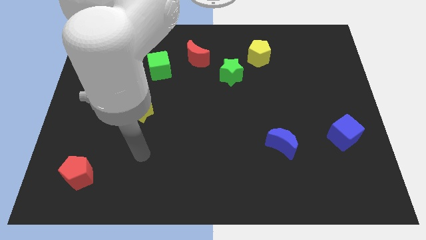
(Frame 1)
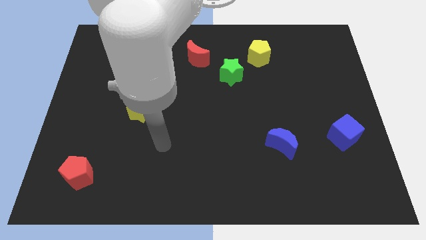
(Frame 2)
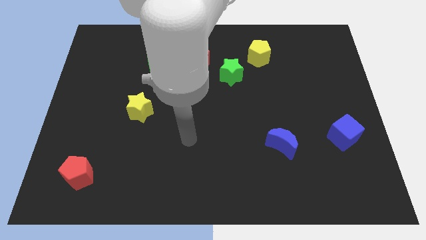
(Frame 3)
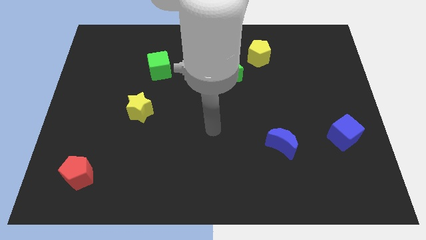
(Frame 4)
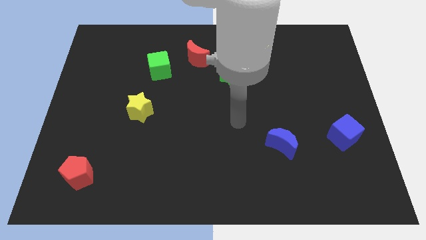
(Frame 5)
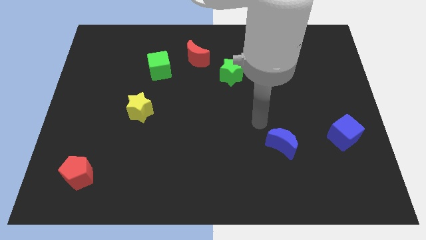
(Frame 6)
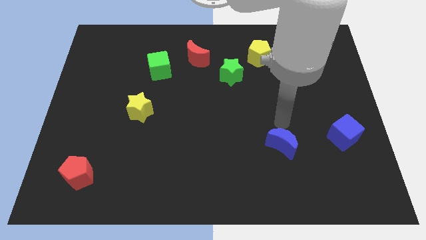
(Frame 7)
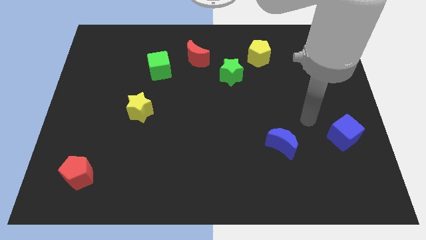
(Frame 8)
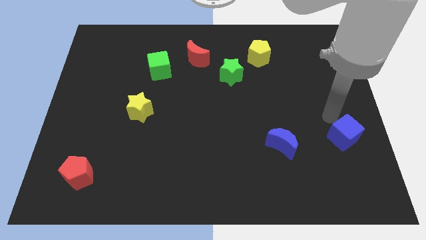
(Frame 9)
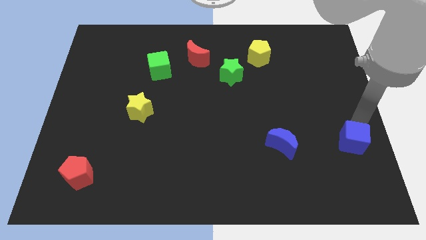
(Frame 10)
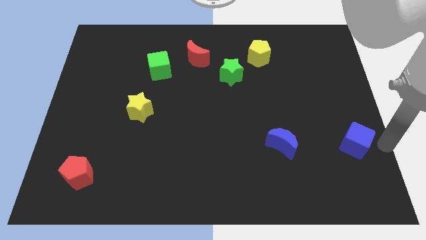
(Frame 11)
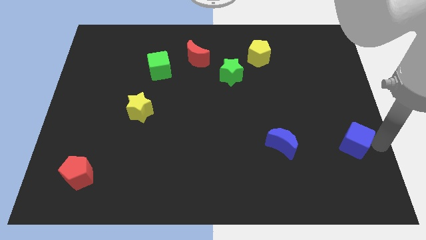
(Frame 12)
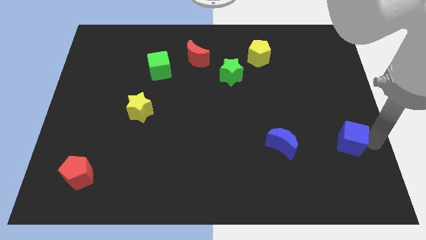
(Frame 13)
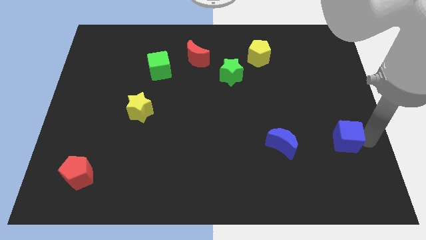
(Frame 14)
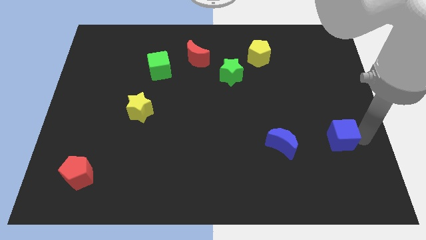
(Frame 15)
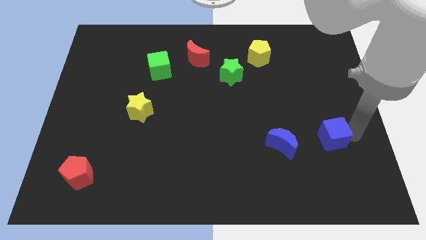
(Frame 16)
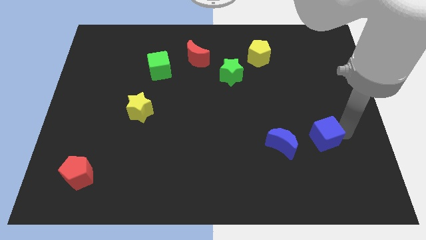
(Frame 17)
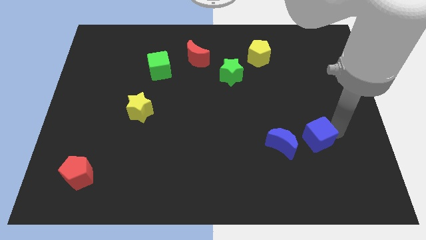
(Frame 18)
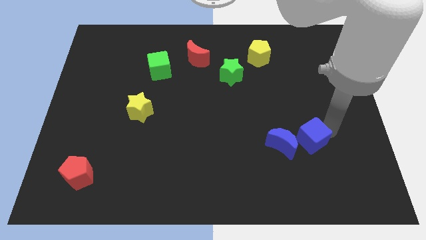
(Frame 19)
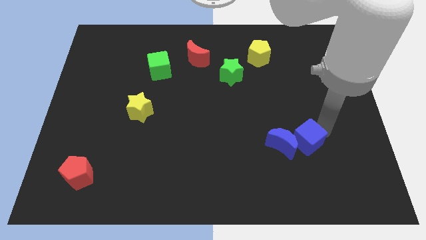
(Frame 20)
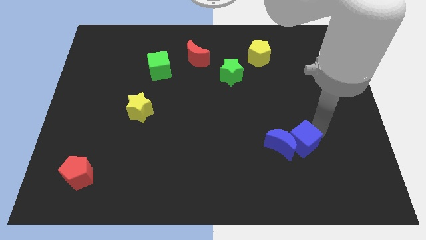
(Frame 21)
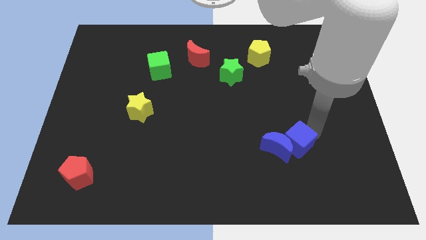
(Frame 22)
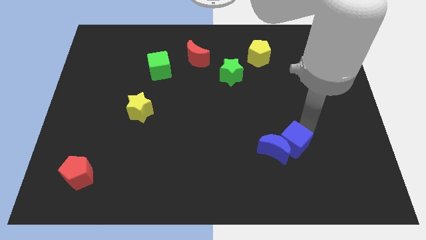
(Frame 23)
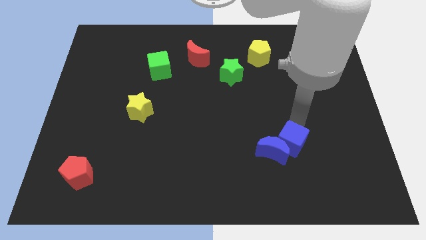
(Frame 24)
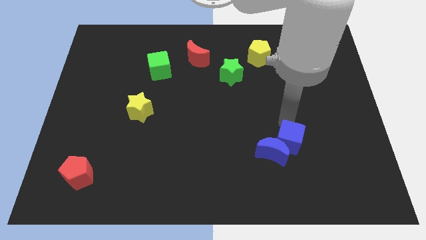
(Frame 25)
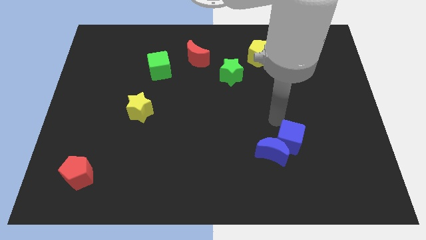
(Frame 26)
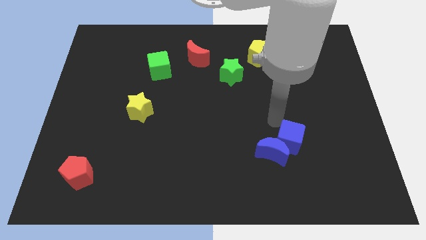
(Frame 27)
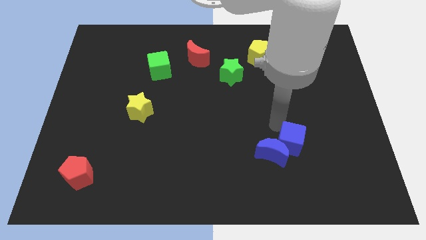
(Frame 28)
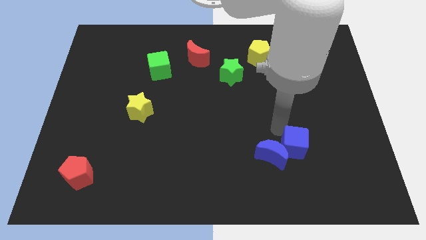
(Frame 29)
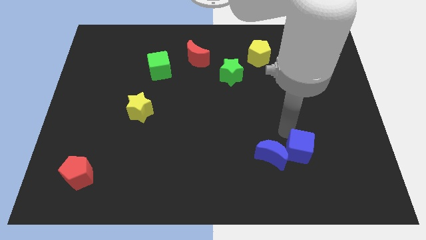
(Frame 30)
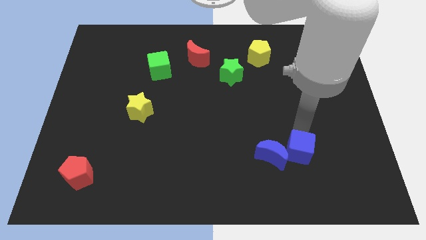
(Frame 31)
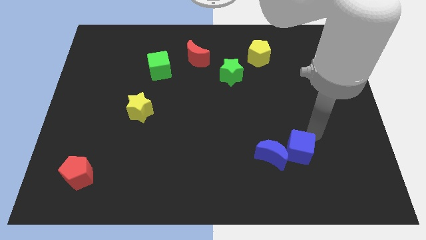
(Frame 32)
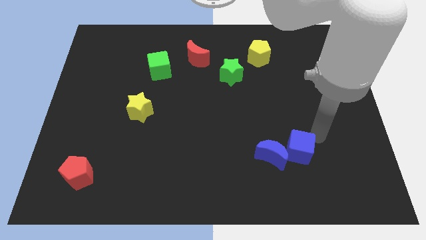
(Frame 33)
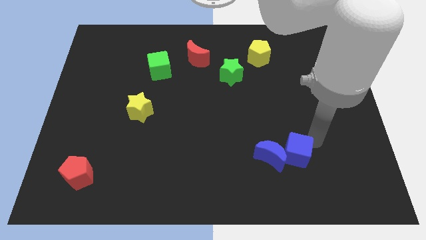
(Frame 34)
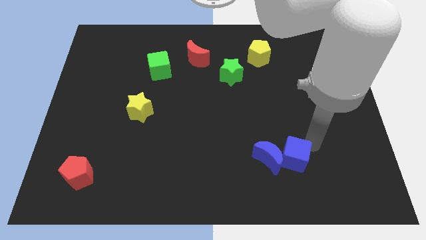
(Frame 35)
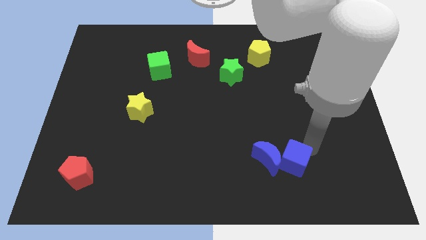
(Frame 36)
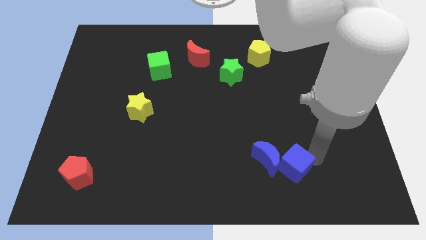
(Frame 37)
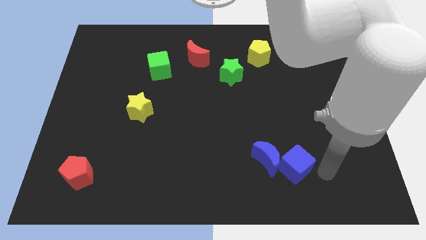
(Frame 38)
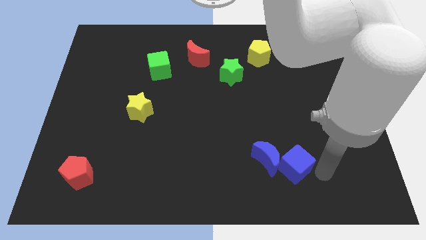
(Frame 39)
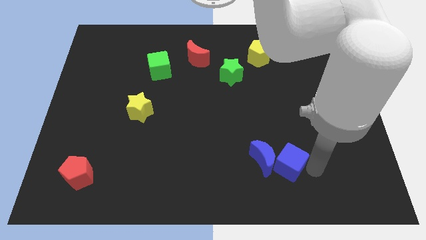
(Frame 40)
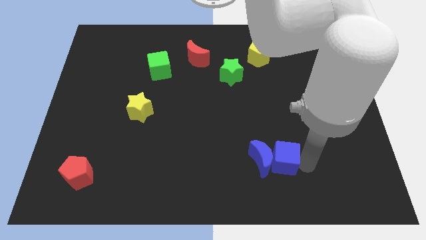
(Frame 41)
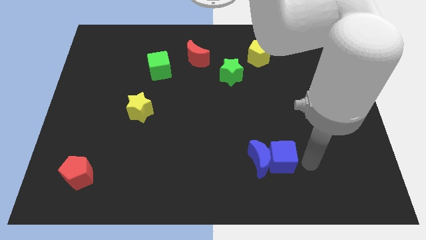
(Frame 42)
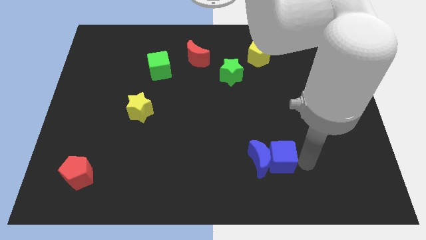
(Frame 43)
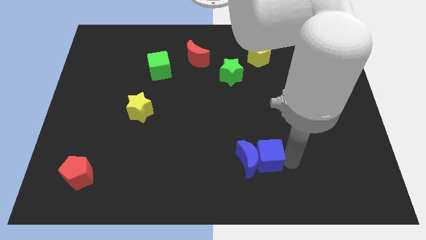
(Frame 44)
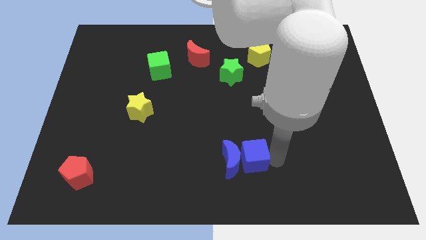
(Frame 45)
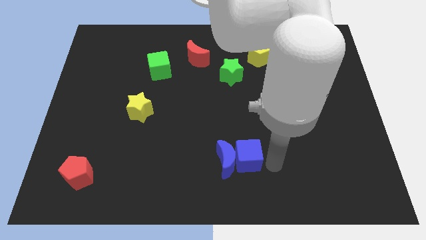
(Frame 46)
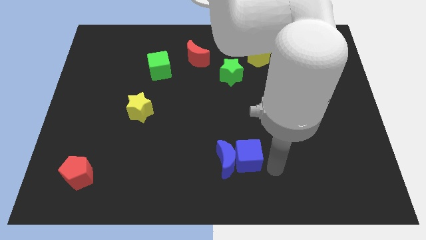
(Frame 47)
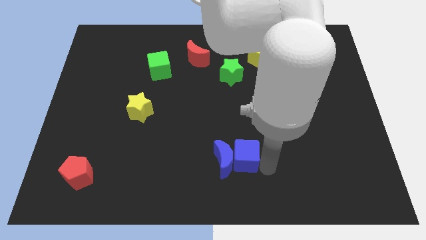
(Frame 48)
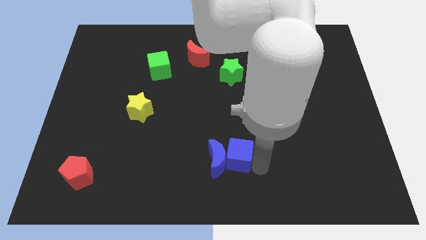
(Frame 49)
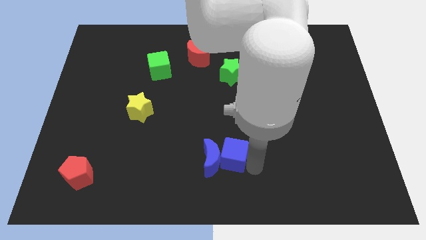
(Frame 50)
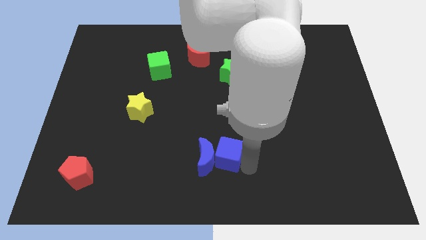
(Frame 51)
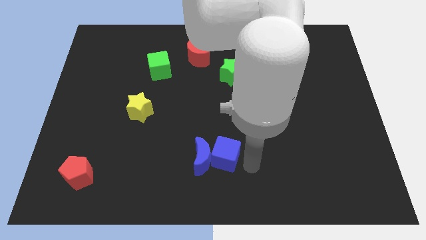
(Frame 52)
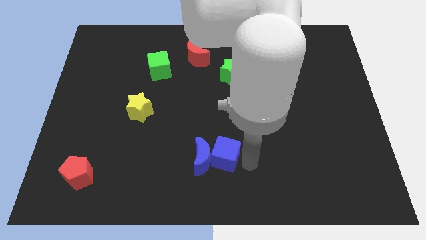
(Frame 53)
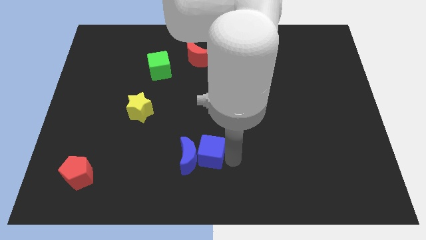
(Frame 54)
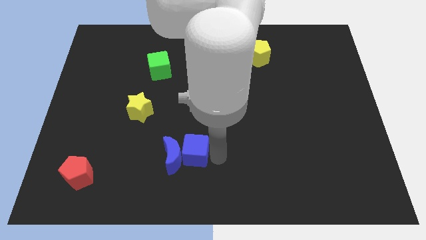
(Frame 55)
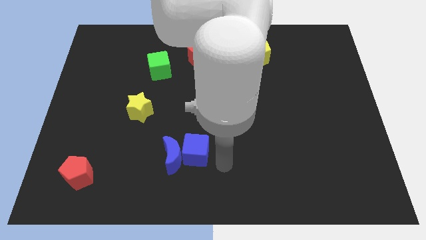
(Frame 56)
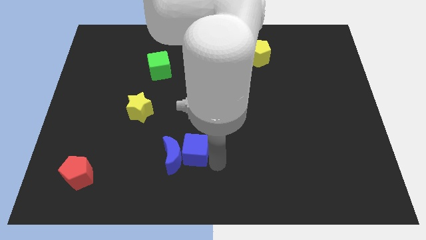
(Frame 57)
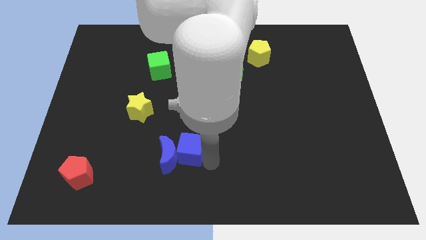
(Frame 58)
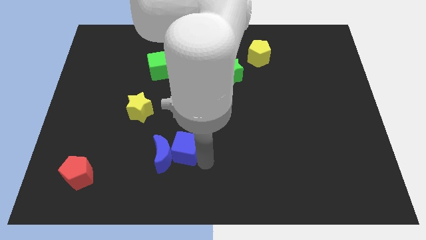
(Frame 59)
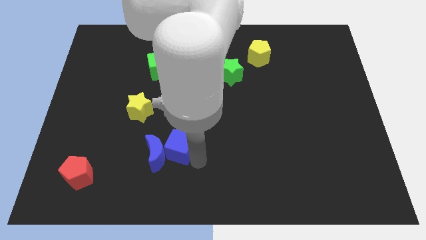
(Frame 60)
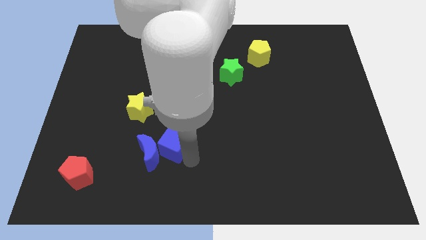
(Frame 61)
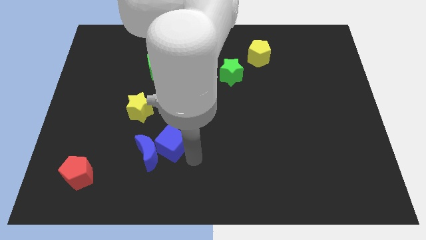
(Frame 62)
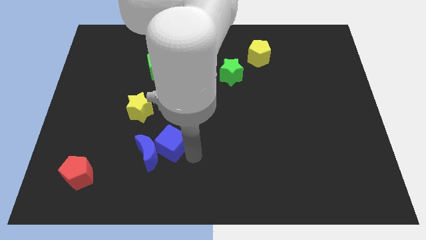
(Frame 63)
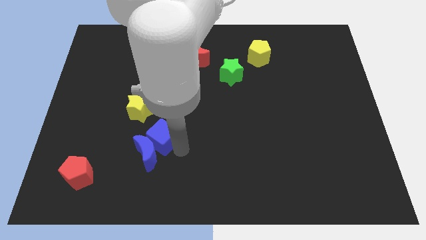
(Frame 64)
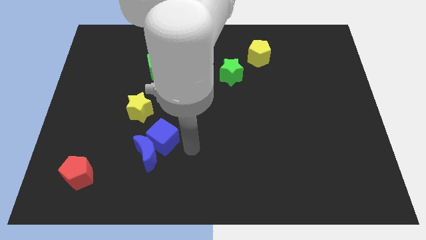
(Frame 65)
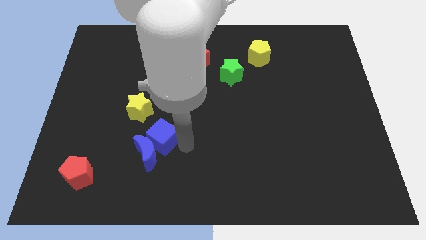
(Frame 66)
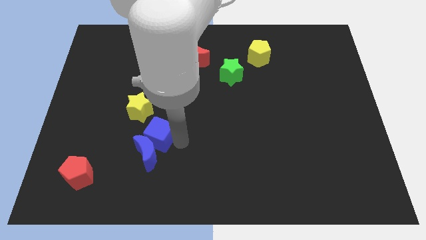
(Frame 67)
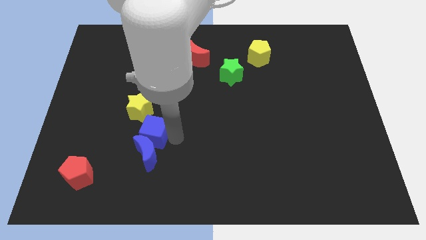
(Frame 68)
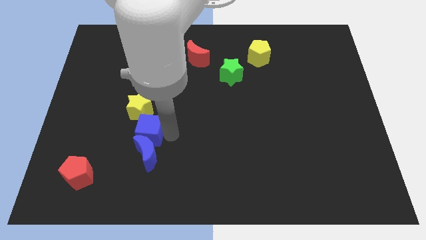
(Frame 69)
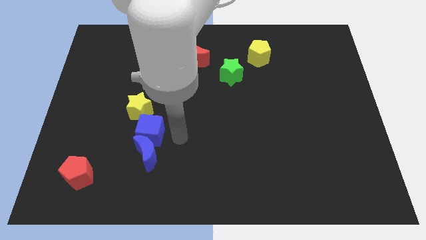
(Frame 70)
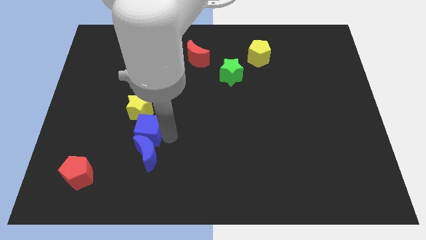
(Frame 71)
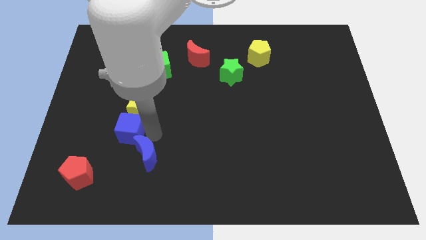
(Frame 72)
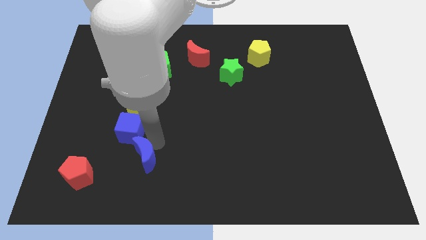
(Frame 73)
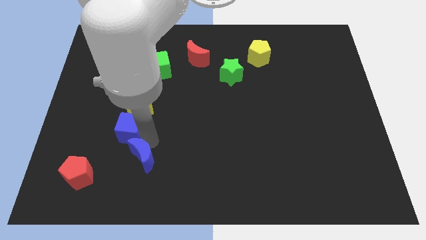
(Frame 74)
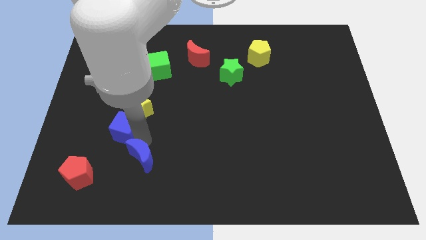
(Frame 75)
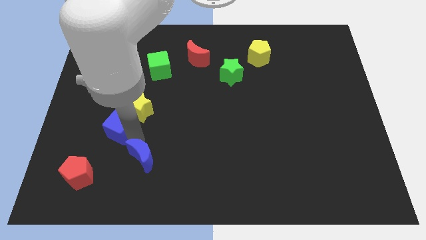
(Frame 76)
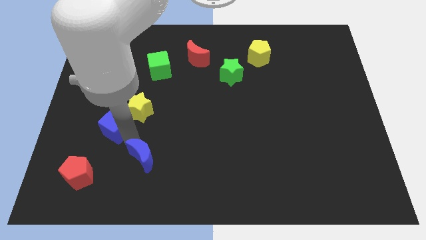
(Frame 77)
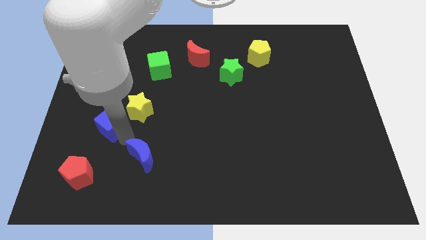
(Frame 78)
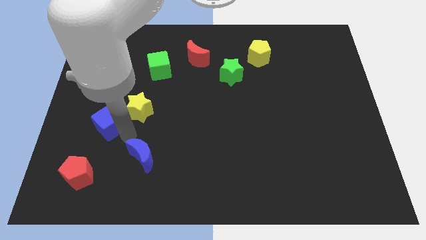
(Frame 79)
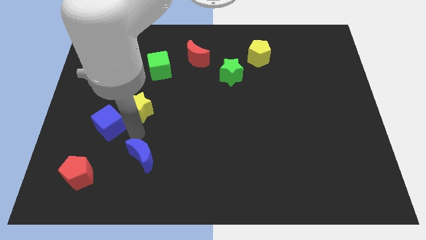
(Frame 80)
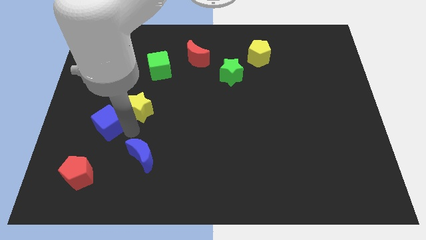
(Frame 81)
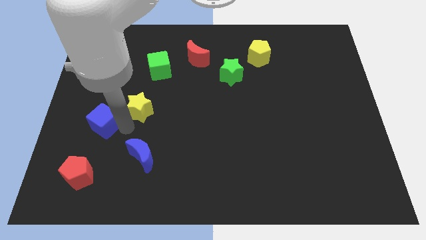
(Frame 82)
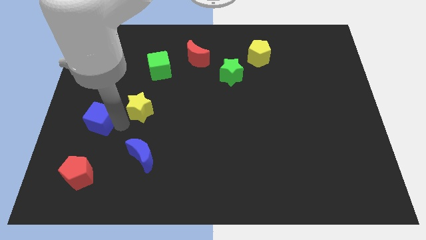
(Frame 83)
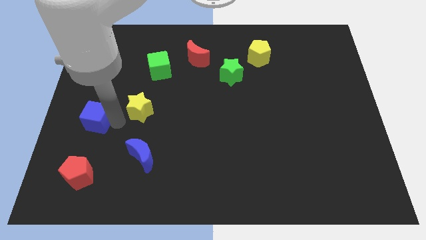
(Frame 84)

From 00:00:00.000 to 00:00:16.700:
push the blue cube to the left side of the board
